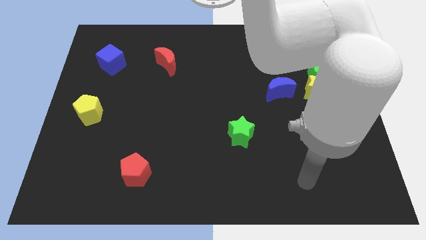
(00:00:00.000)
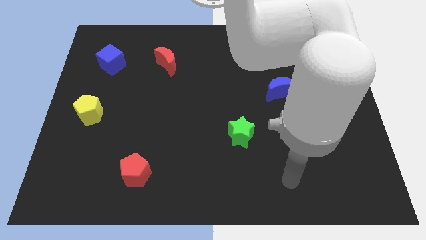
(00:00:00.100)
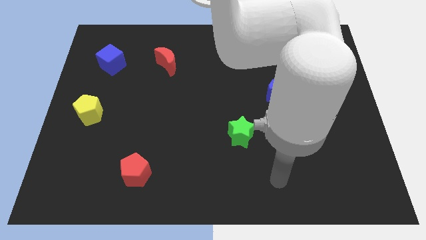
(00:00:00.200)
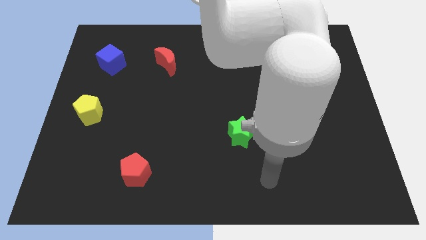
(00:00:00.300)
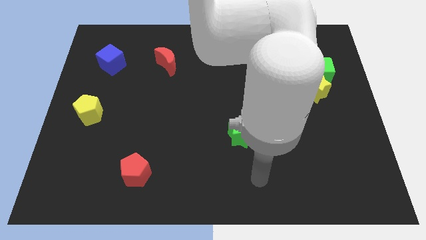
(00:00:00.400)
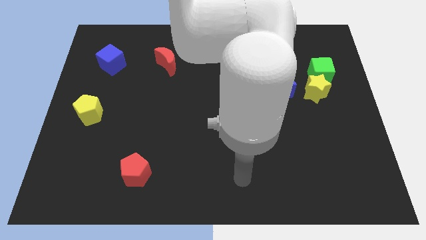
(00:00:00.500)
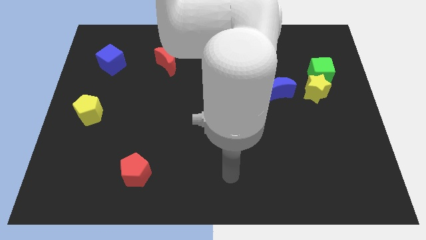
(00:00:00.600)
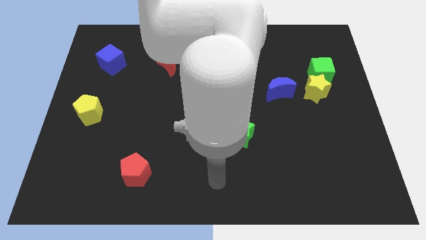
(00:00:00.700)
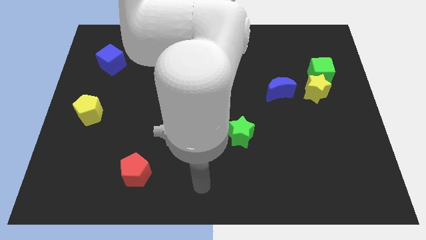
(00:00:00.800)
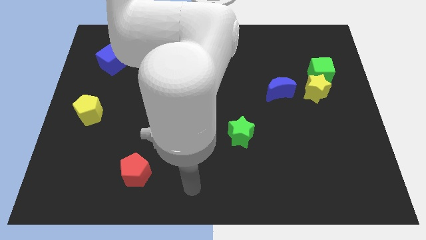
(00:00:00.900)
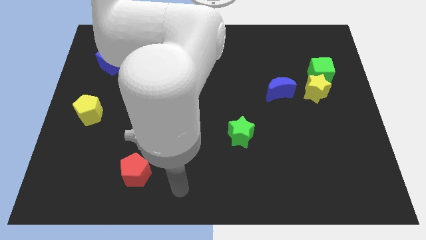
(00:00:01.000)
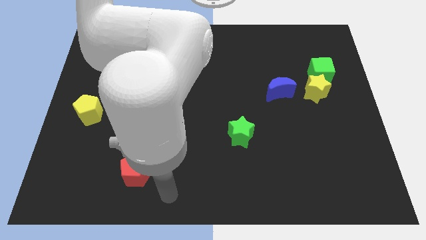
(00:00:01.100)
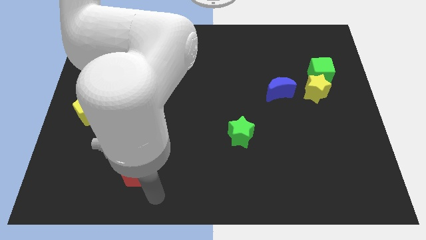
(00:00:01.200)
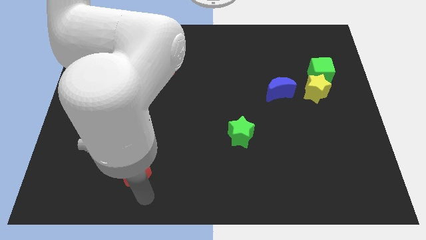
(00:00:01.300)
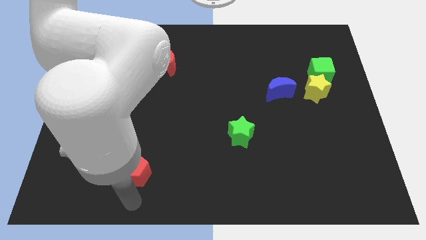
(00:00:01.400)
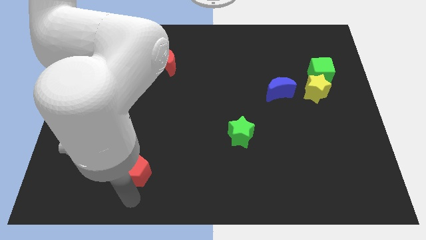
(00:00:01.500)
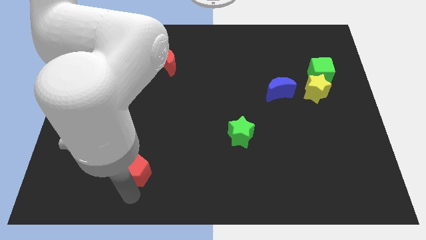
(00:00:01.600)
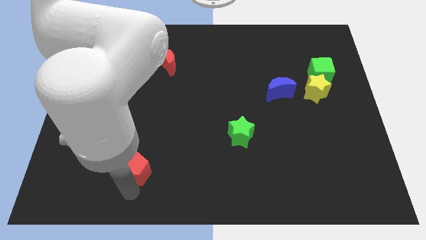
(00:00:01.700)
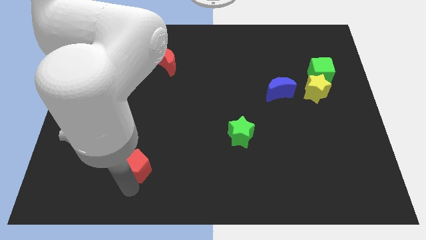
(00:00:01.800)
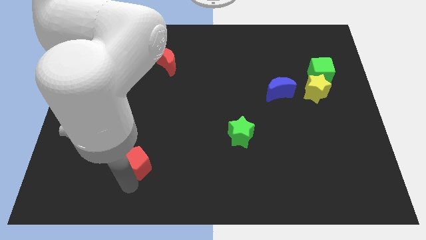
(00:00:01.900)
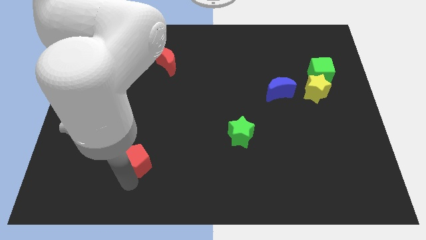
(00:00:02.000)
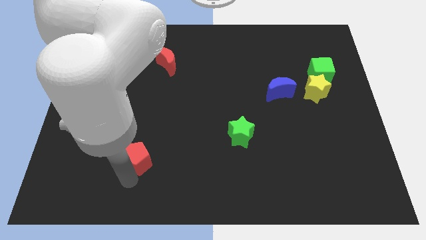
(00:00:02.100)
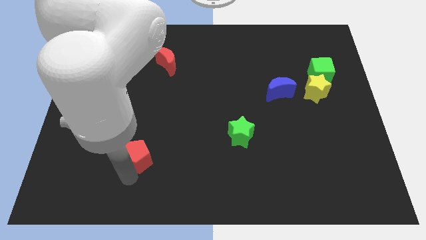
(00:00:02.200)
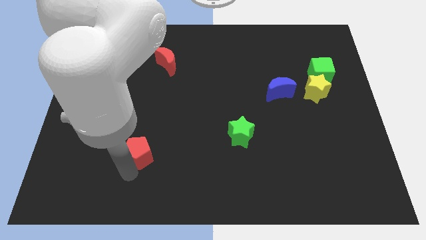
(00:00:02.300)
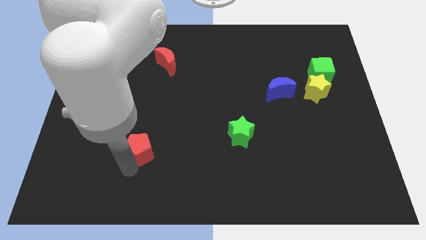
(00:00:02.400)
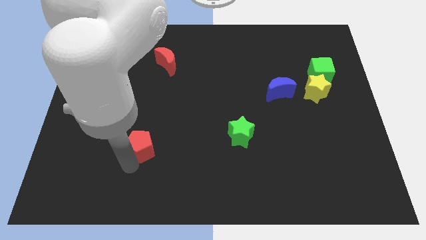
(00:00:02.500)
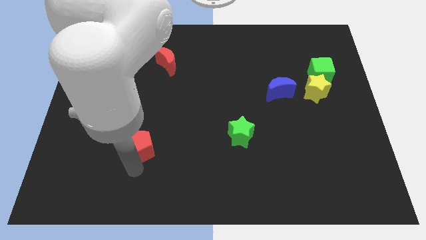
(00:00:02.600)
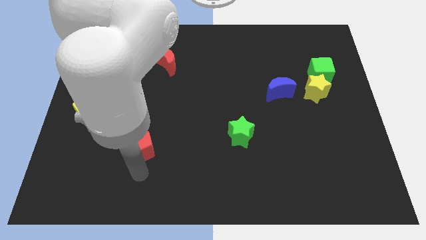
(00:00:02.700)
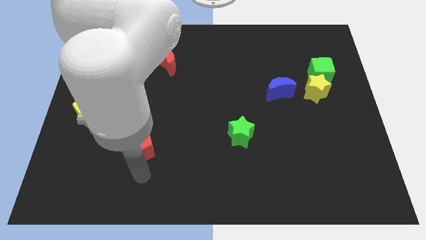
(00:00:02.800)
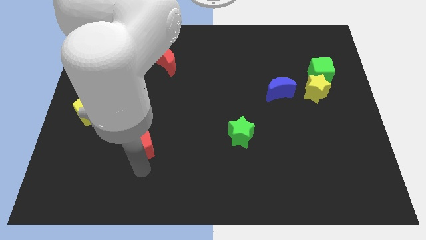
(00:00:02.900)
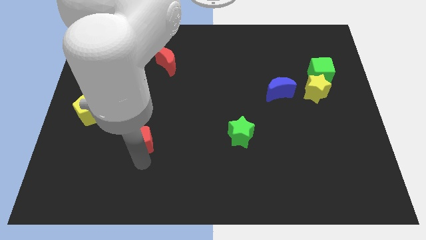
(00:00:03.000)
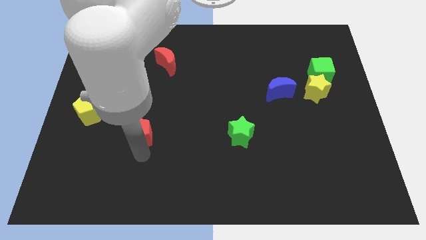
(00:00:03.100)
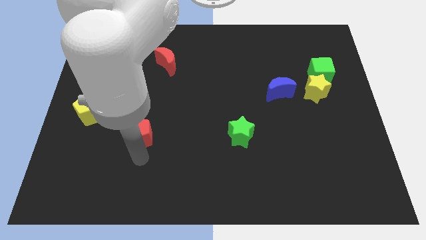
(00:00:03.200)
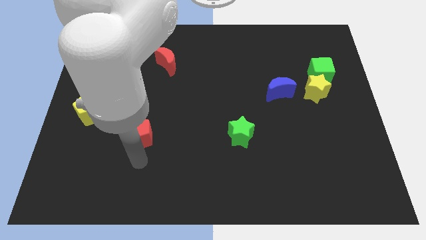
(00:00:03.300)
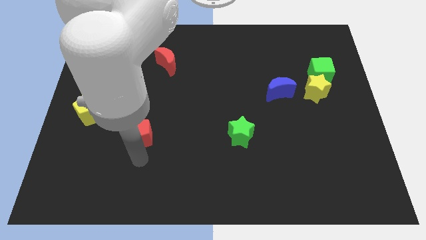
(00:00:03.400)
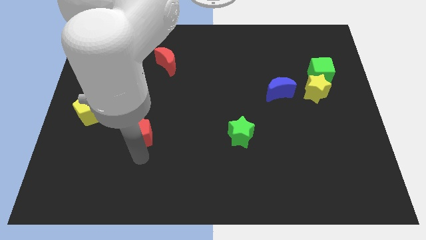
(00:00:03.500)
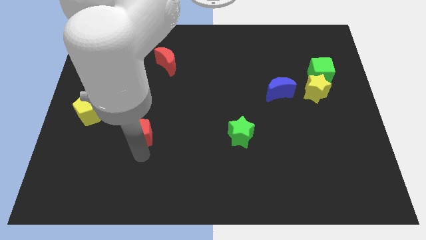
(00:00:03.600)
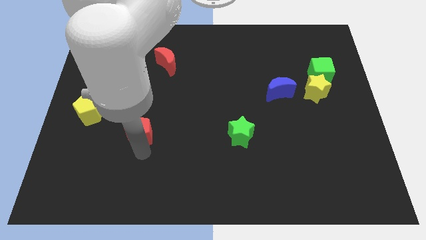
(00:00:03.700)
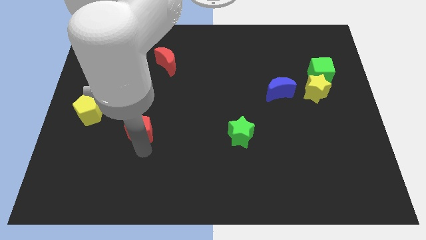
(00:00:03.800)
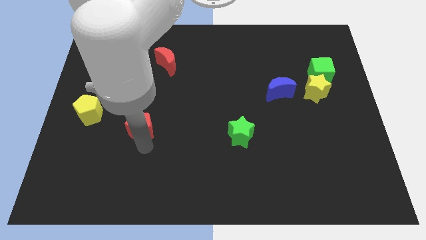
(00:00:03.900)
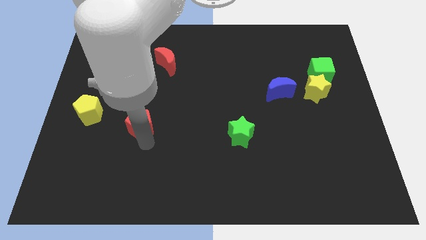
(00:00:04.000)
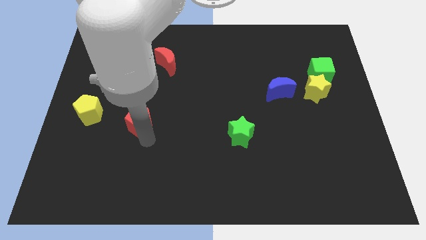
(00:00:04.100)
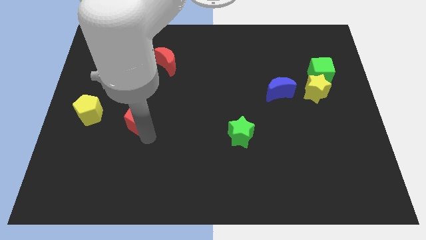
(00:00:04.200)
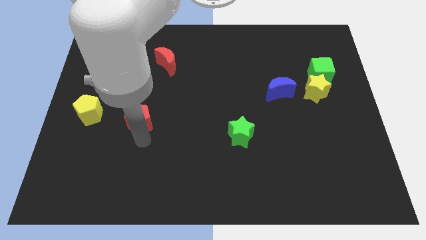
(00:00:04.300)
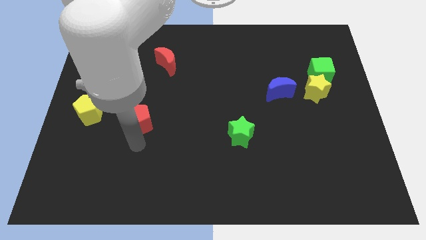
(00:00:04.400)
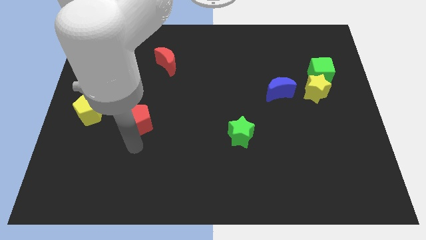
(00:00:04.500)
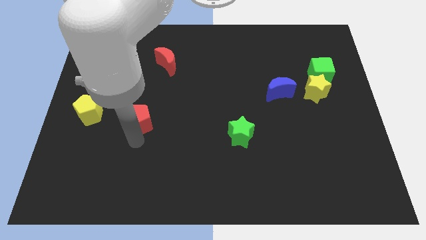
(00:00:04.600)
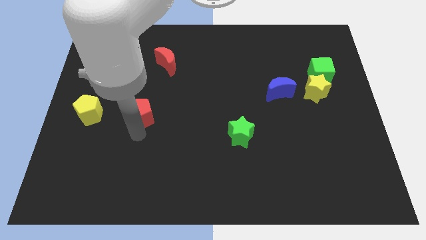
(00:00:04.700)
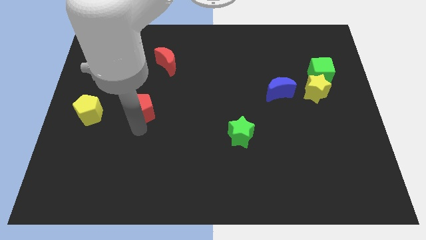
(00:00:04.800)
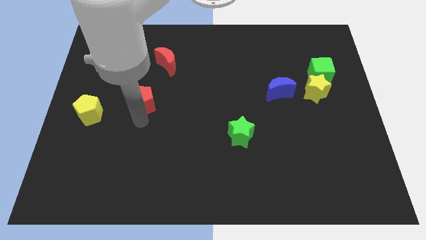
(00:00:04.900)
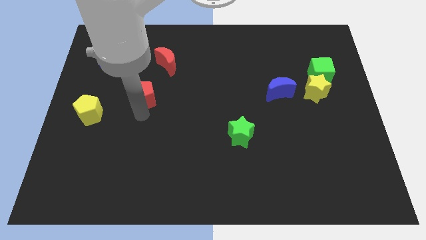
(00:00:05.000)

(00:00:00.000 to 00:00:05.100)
slide the red pentagon up

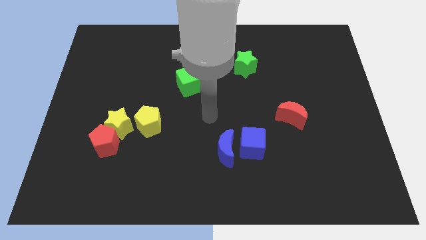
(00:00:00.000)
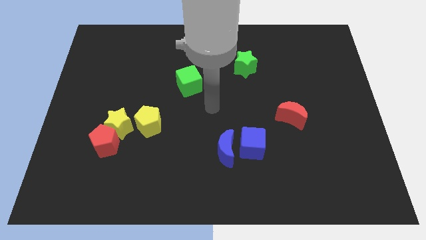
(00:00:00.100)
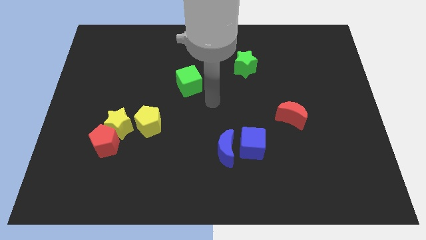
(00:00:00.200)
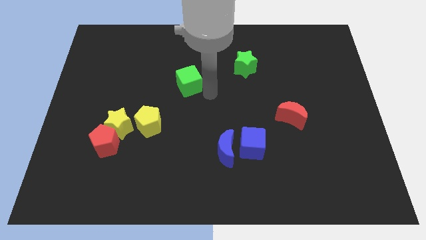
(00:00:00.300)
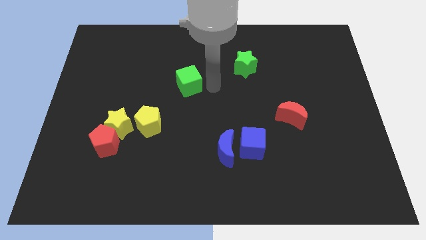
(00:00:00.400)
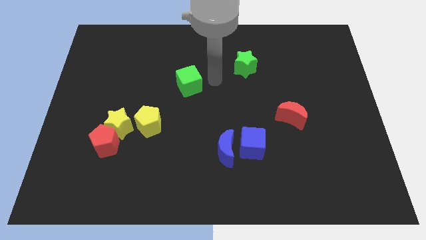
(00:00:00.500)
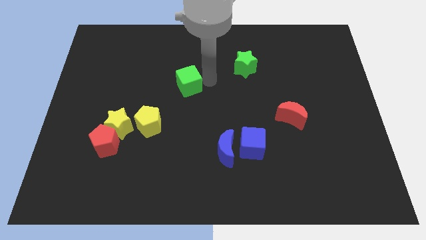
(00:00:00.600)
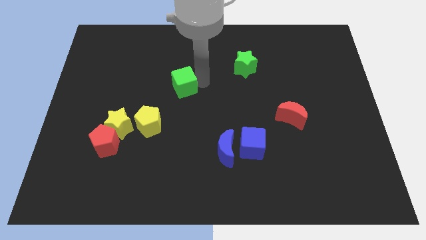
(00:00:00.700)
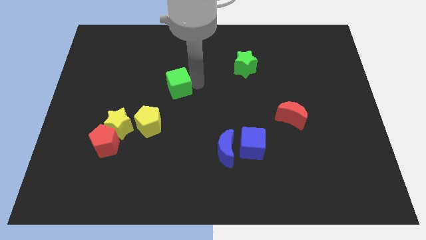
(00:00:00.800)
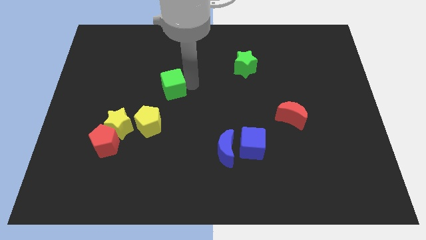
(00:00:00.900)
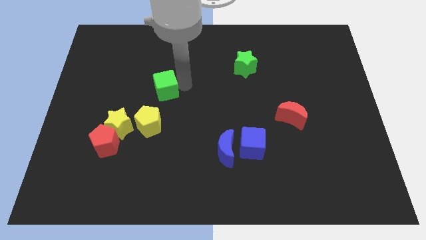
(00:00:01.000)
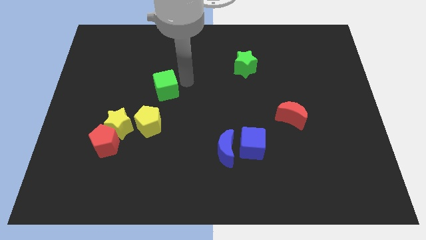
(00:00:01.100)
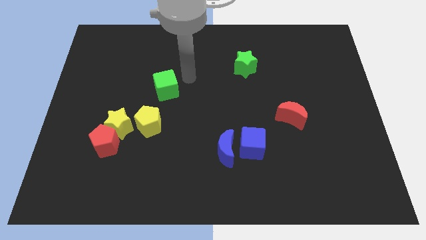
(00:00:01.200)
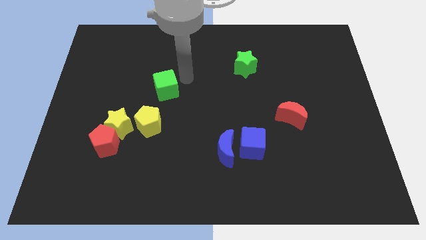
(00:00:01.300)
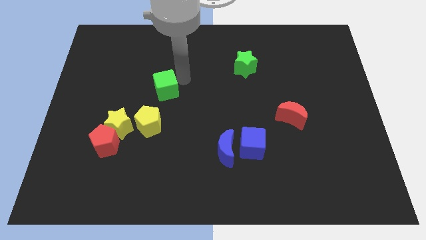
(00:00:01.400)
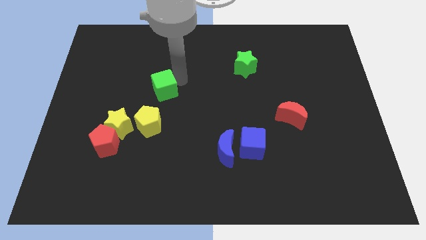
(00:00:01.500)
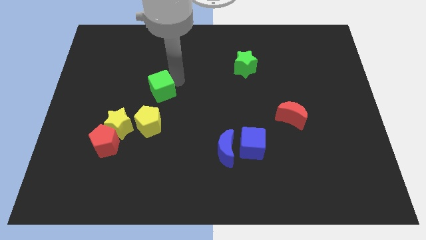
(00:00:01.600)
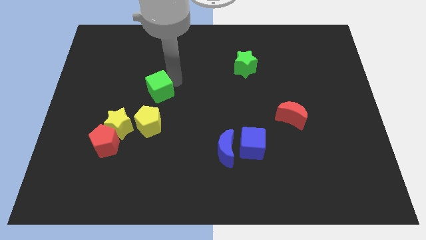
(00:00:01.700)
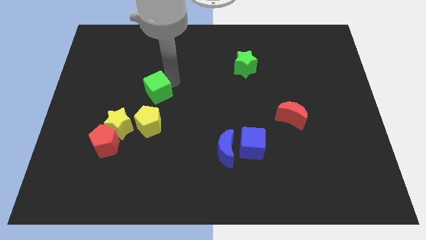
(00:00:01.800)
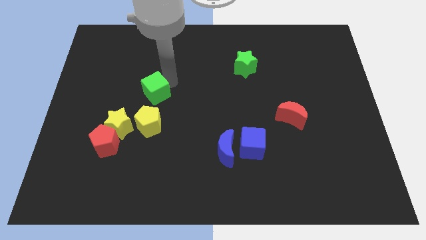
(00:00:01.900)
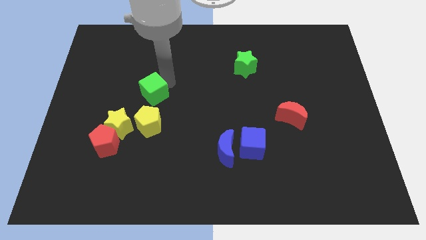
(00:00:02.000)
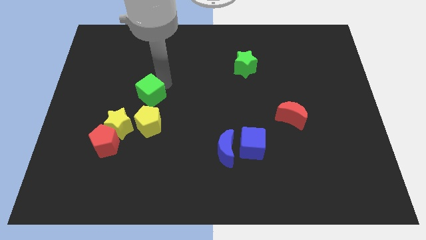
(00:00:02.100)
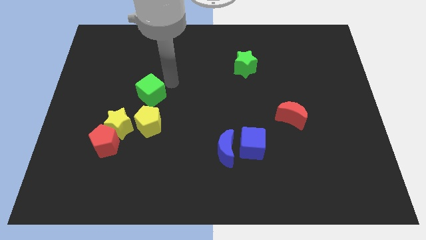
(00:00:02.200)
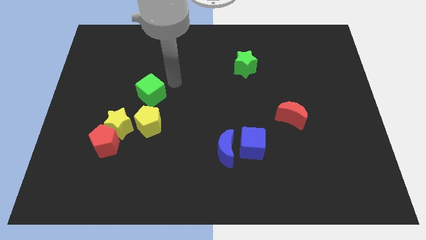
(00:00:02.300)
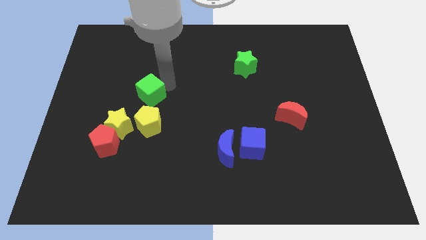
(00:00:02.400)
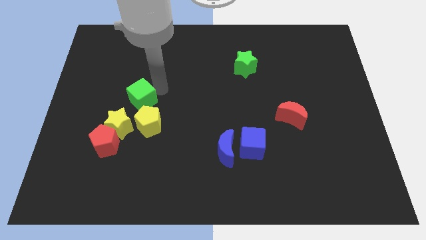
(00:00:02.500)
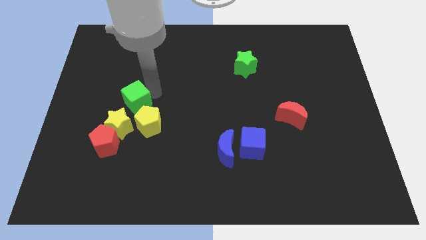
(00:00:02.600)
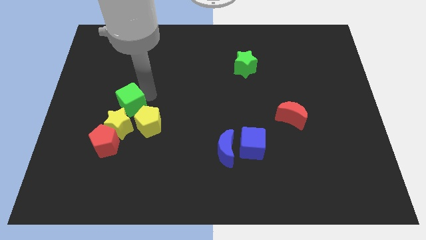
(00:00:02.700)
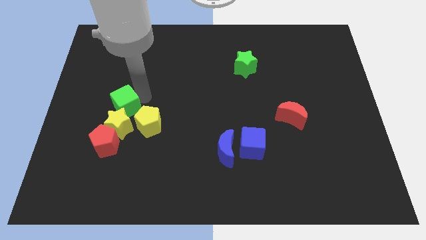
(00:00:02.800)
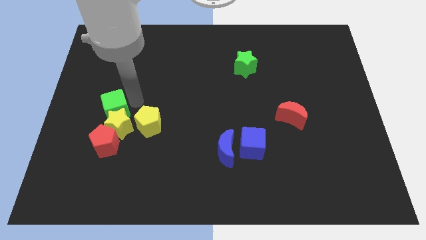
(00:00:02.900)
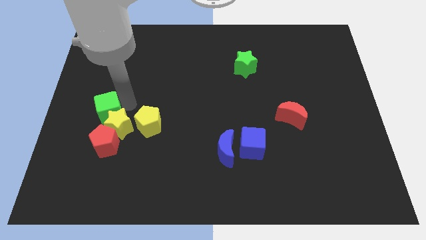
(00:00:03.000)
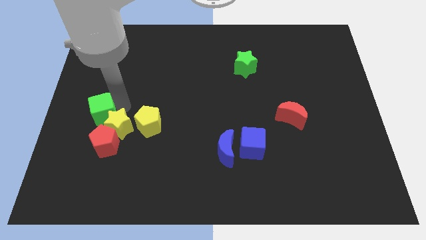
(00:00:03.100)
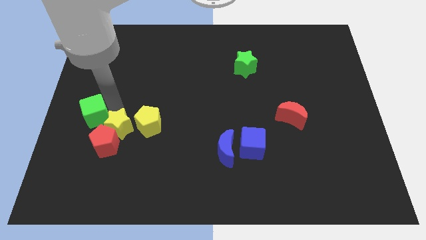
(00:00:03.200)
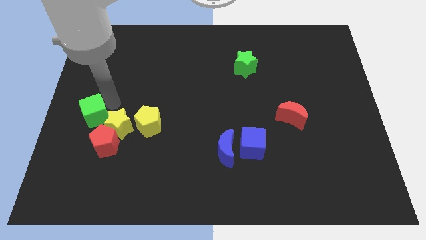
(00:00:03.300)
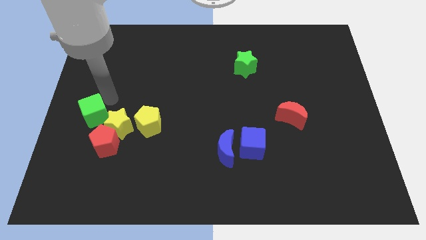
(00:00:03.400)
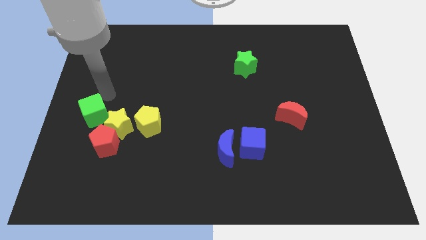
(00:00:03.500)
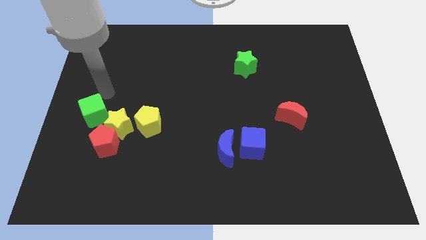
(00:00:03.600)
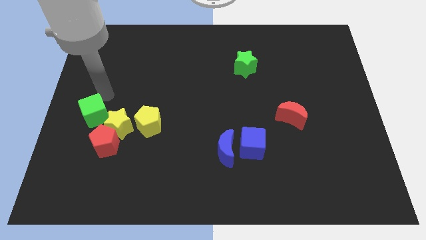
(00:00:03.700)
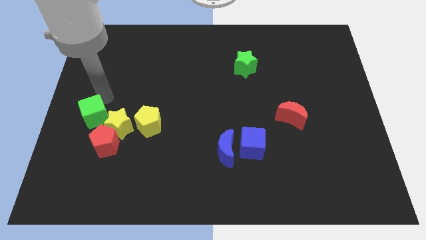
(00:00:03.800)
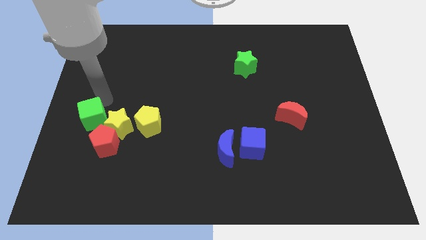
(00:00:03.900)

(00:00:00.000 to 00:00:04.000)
push the green cube down and left diagonally
